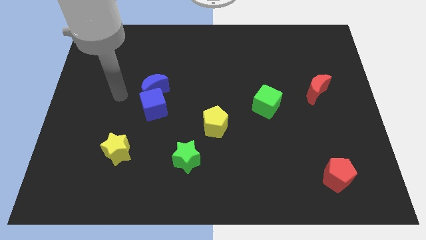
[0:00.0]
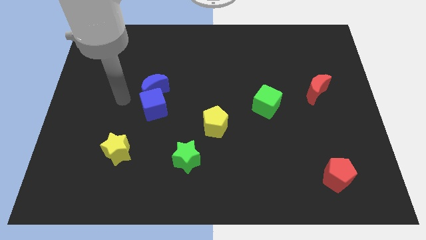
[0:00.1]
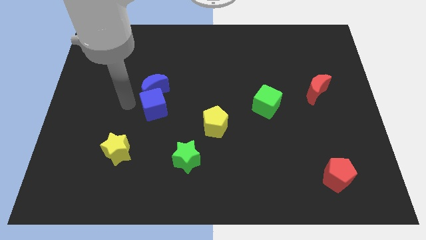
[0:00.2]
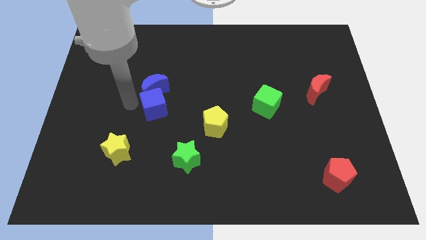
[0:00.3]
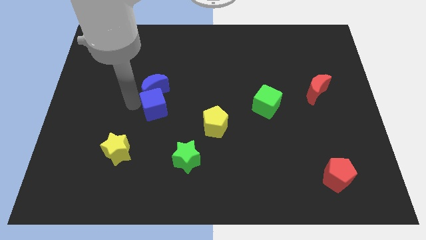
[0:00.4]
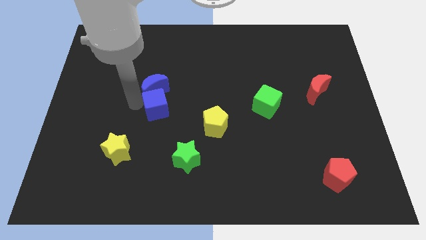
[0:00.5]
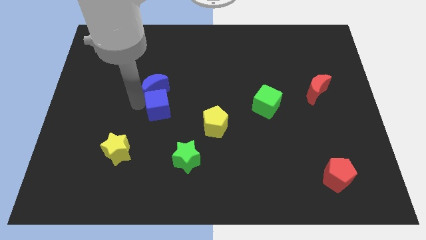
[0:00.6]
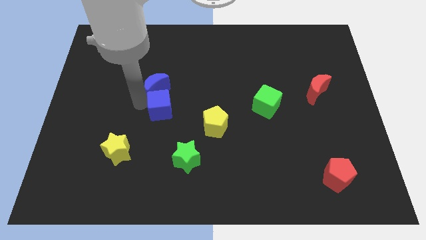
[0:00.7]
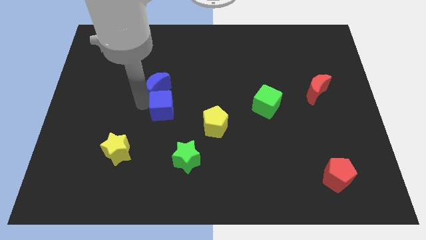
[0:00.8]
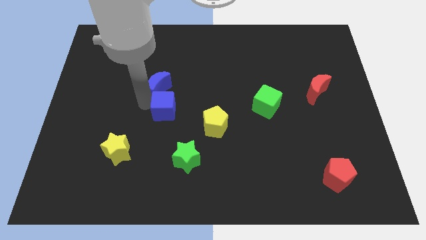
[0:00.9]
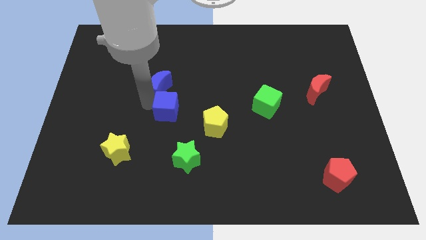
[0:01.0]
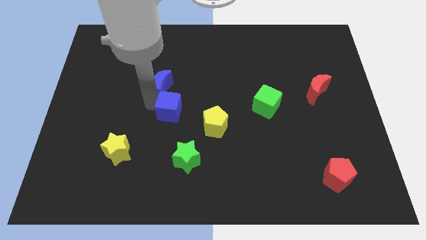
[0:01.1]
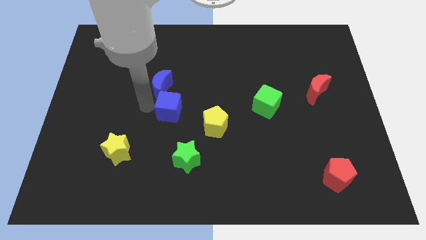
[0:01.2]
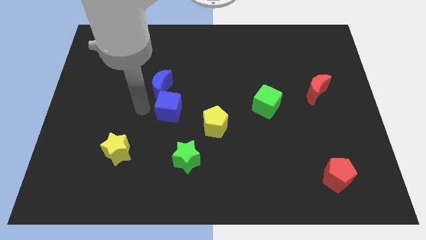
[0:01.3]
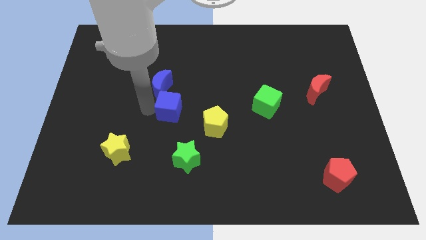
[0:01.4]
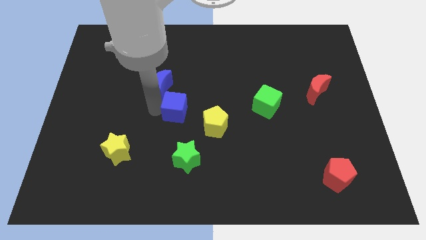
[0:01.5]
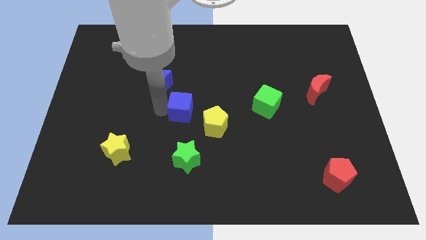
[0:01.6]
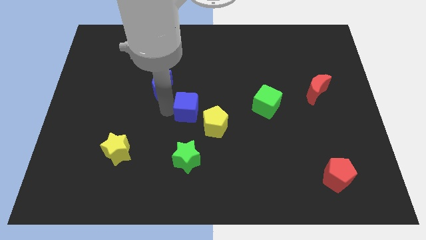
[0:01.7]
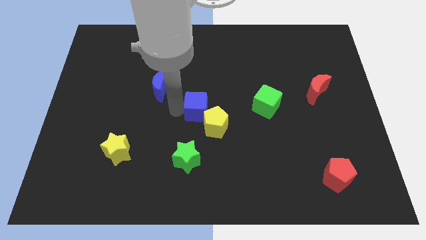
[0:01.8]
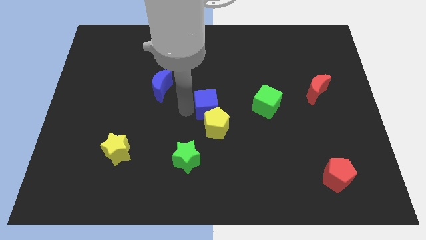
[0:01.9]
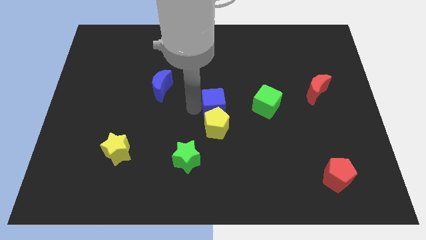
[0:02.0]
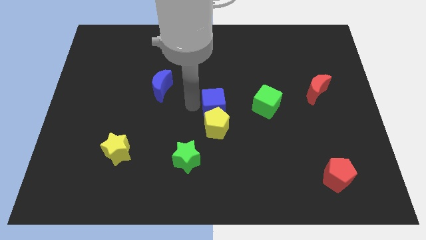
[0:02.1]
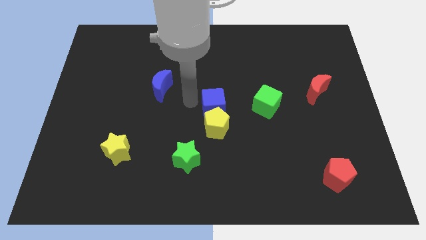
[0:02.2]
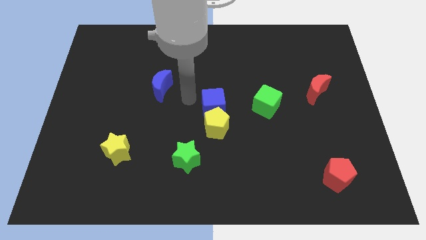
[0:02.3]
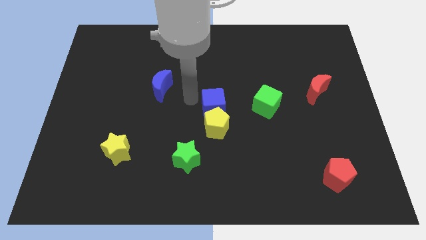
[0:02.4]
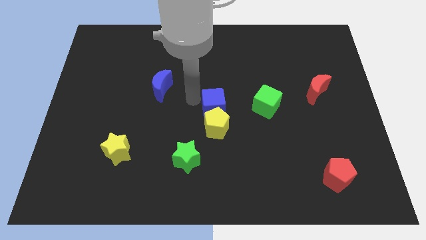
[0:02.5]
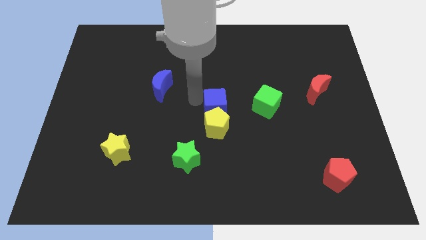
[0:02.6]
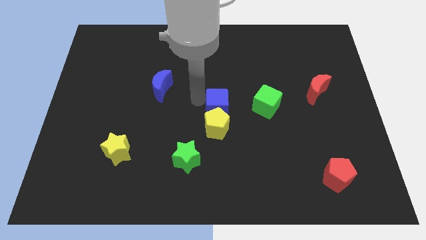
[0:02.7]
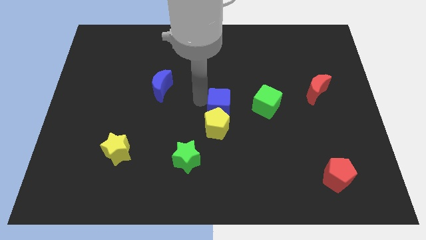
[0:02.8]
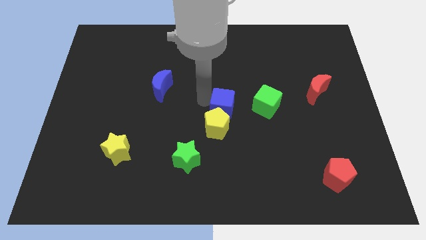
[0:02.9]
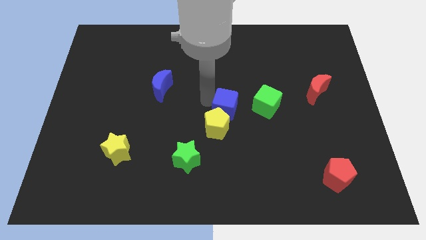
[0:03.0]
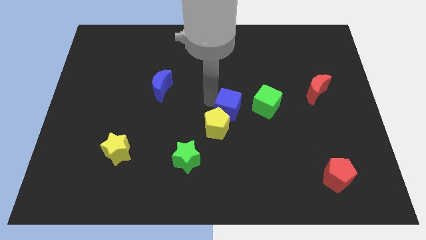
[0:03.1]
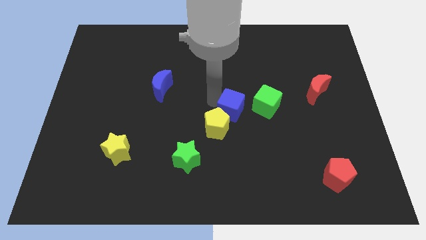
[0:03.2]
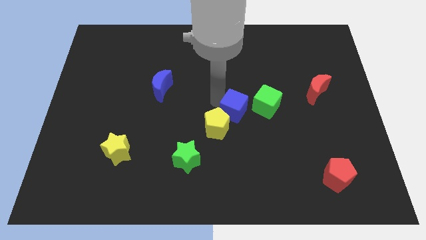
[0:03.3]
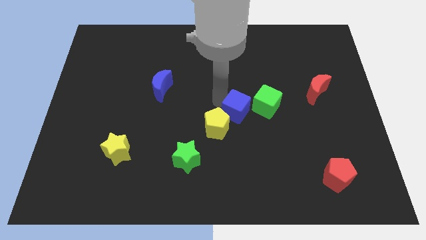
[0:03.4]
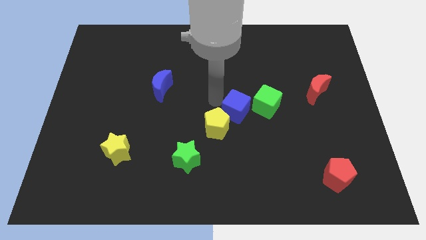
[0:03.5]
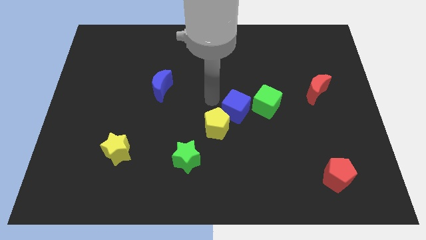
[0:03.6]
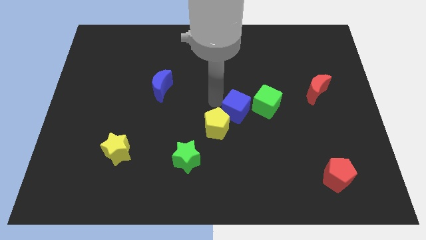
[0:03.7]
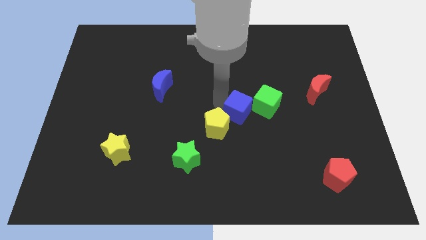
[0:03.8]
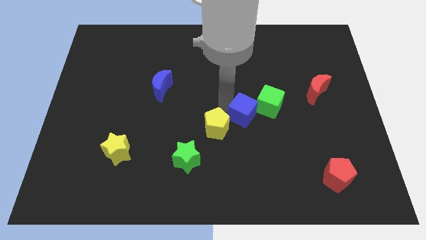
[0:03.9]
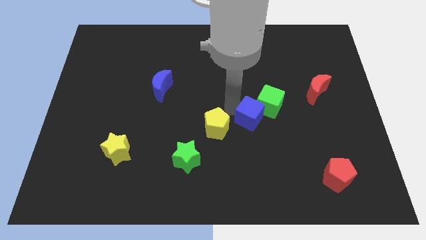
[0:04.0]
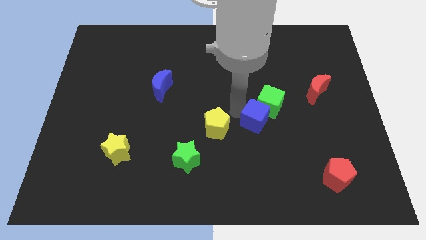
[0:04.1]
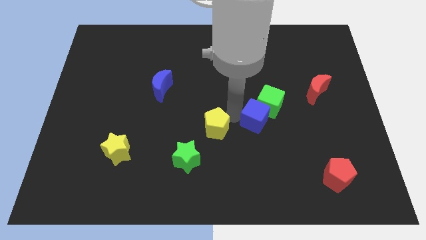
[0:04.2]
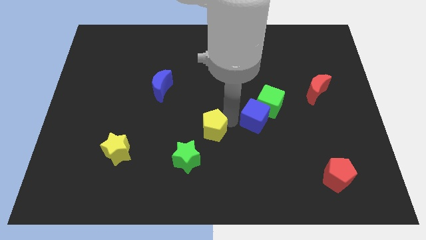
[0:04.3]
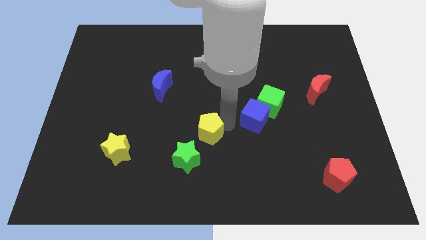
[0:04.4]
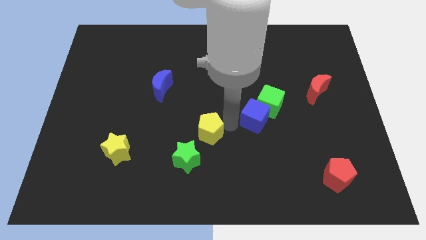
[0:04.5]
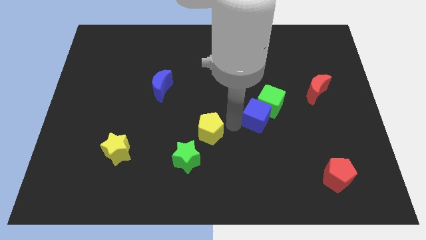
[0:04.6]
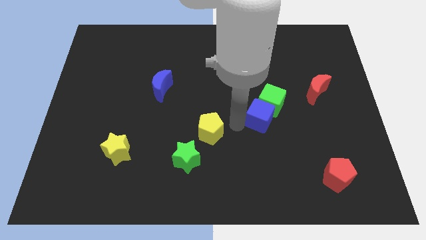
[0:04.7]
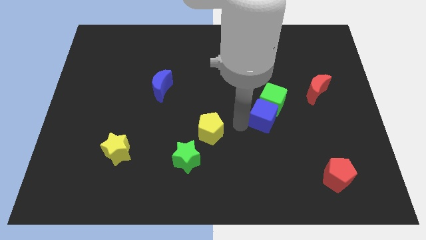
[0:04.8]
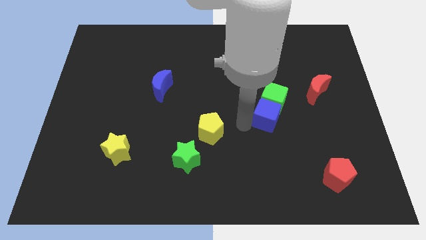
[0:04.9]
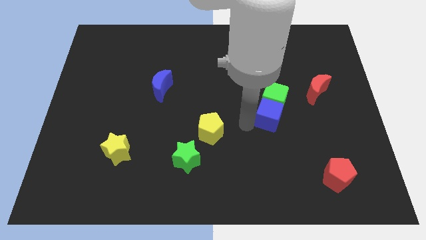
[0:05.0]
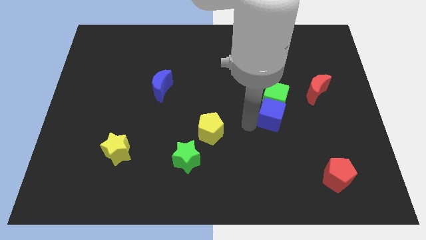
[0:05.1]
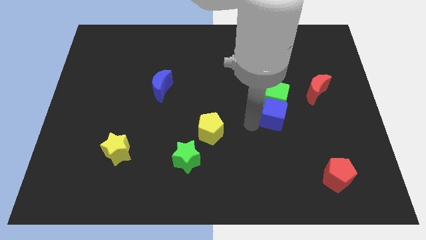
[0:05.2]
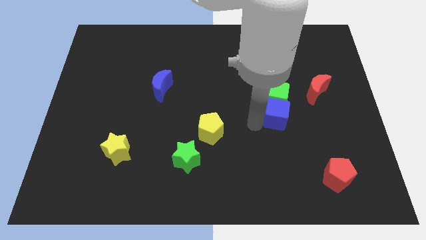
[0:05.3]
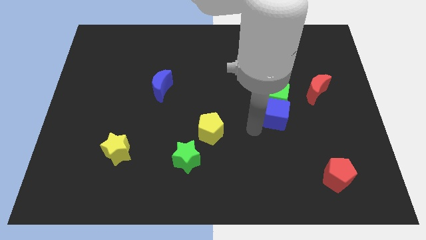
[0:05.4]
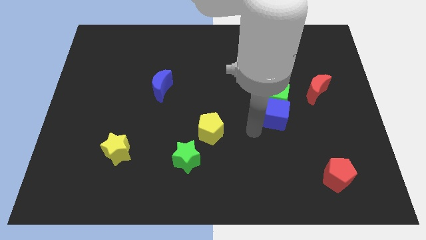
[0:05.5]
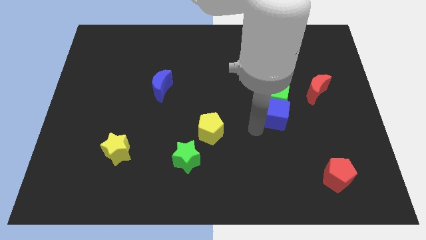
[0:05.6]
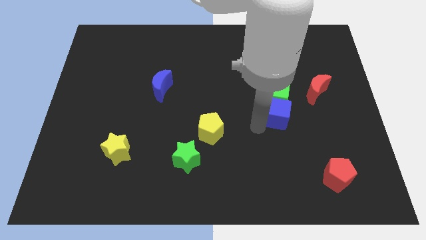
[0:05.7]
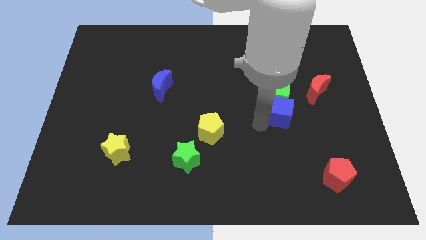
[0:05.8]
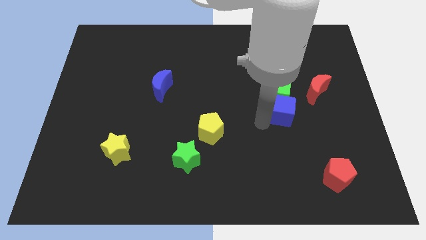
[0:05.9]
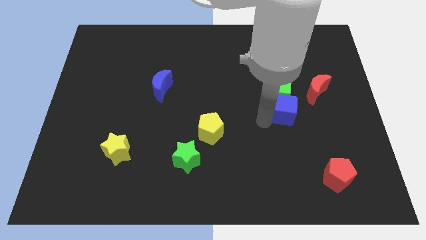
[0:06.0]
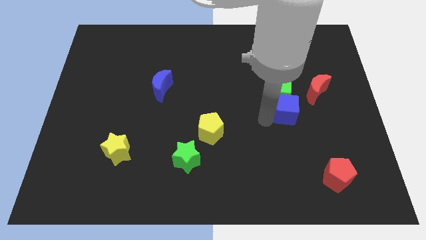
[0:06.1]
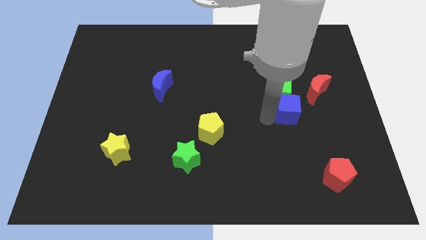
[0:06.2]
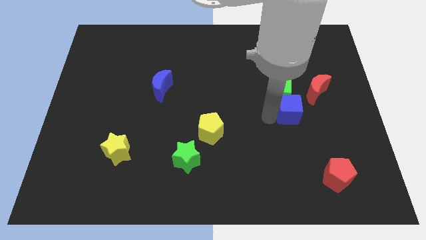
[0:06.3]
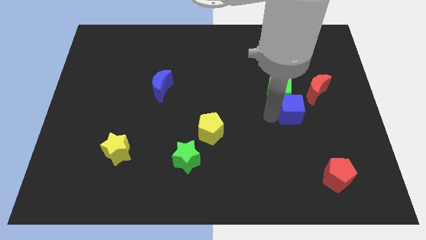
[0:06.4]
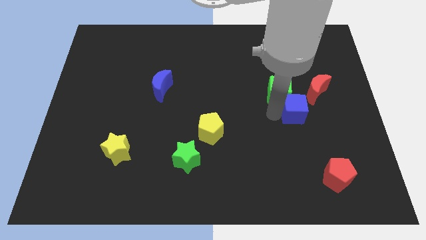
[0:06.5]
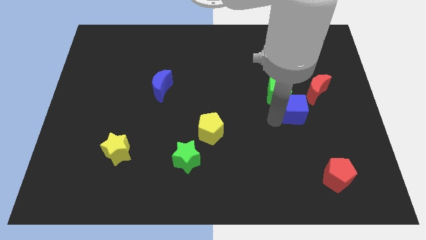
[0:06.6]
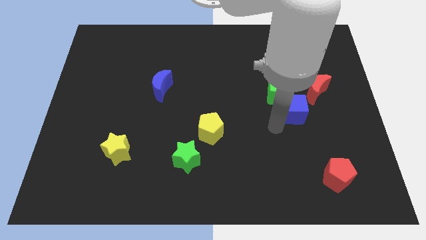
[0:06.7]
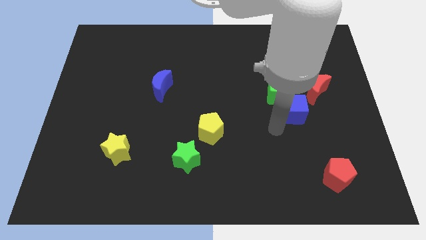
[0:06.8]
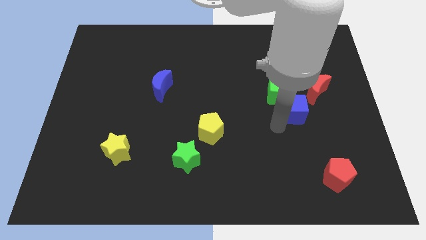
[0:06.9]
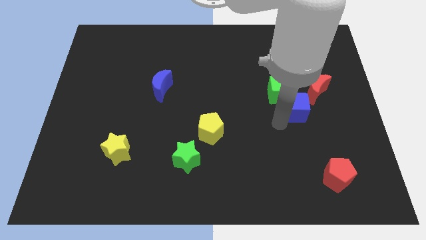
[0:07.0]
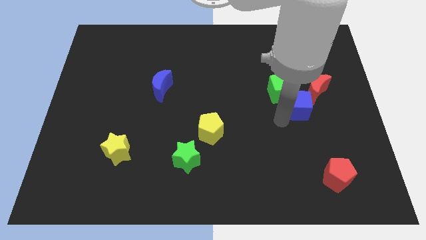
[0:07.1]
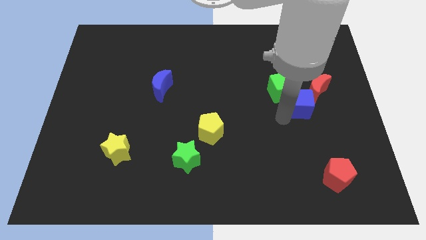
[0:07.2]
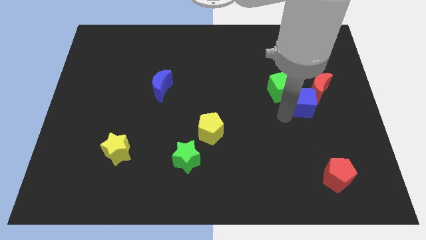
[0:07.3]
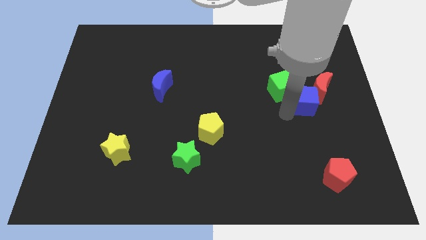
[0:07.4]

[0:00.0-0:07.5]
push the blue cube to the red moon
